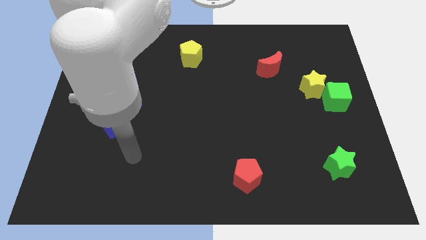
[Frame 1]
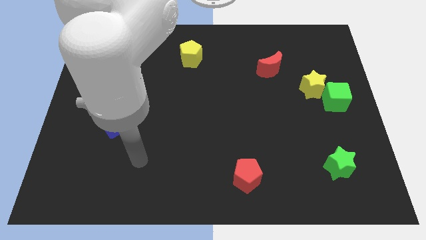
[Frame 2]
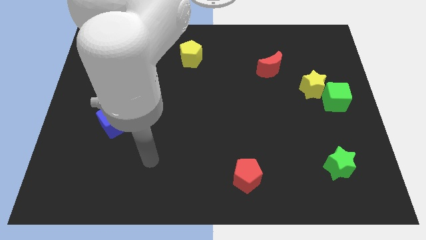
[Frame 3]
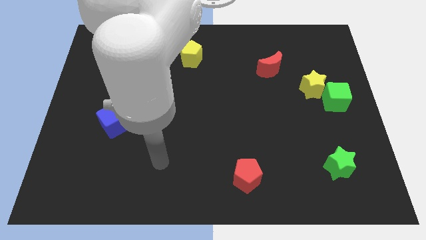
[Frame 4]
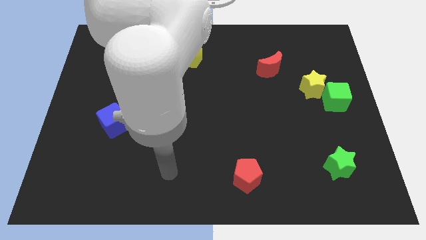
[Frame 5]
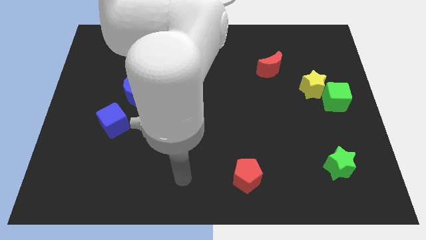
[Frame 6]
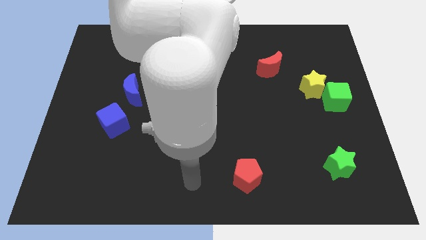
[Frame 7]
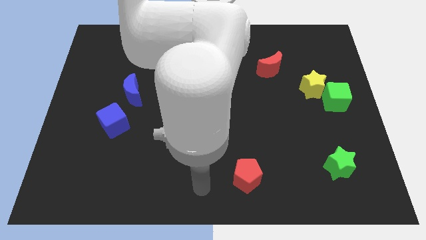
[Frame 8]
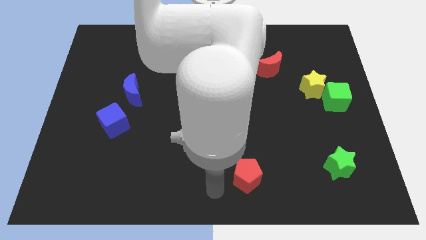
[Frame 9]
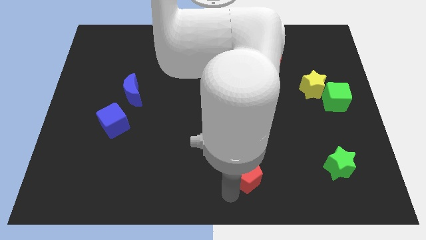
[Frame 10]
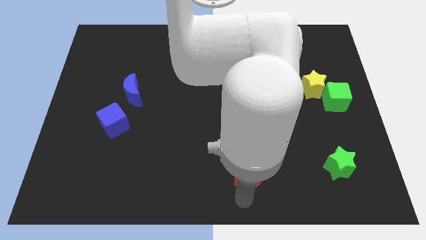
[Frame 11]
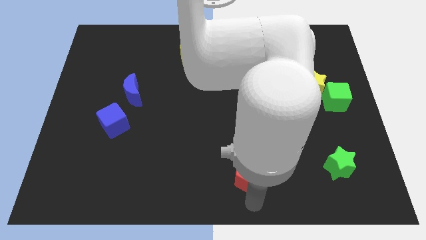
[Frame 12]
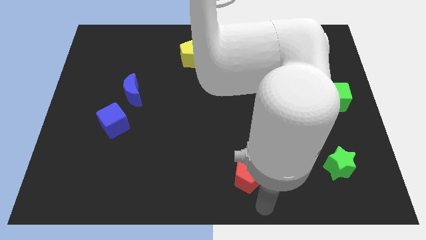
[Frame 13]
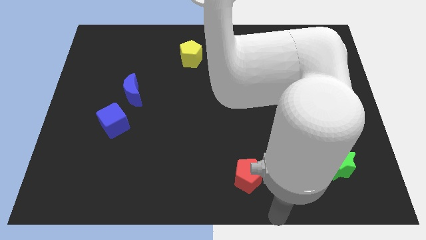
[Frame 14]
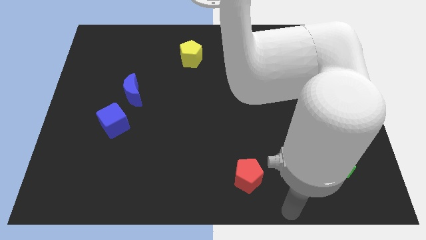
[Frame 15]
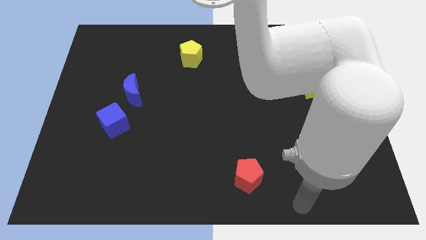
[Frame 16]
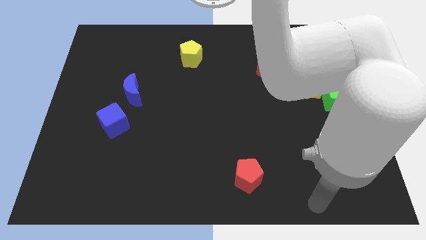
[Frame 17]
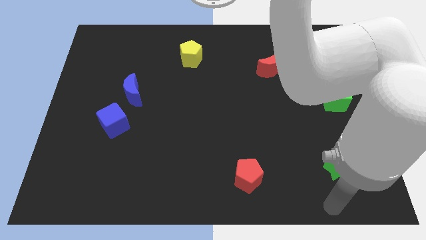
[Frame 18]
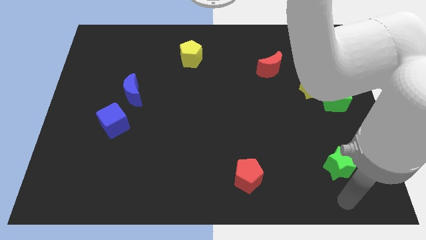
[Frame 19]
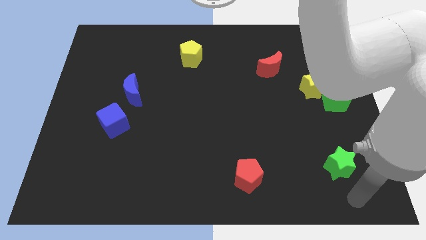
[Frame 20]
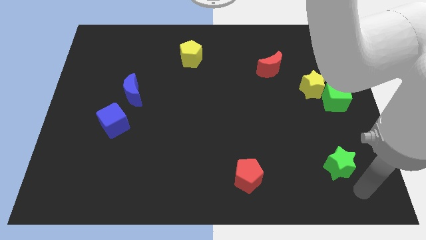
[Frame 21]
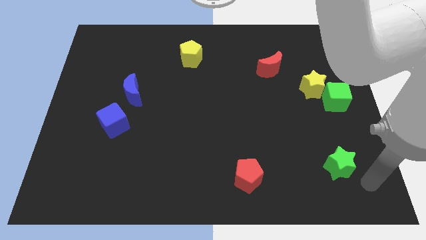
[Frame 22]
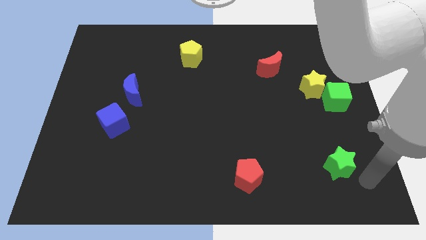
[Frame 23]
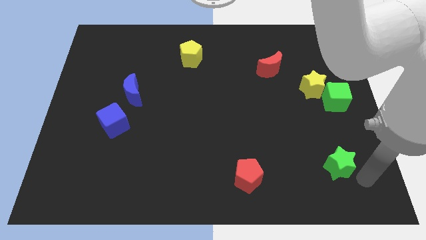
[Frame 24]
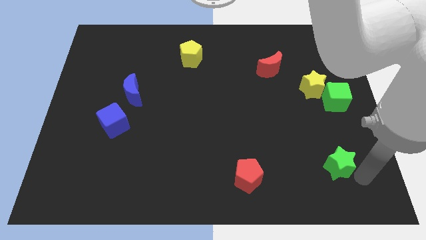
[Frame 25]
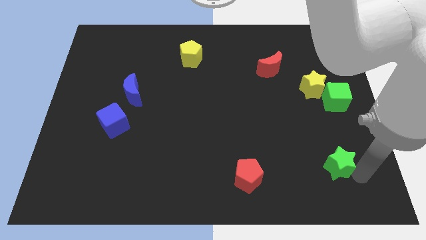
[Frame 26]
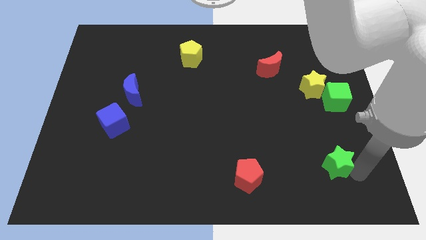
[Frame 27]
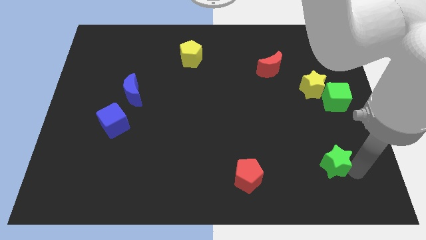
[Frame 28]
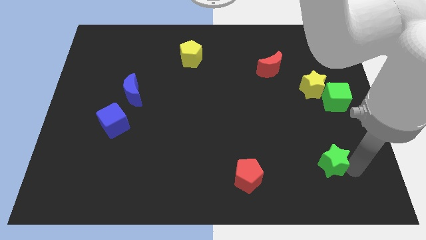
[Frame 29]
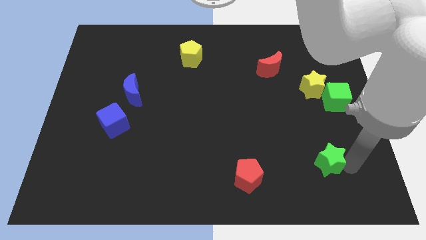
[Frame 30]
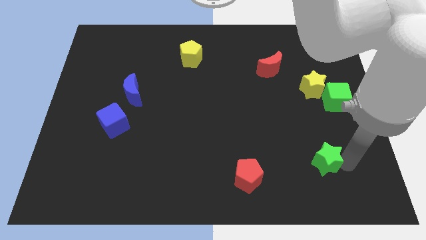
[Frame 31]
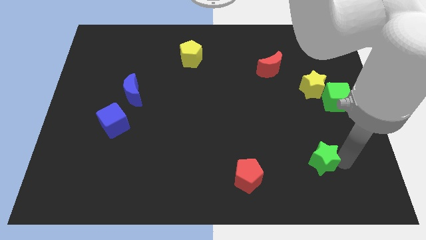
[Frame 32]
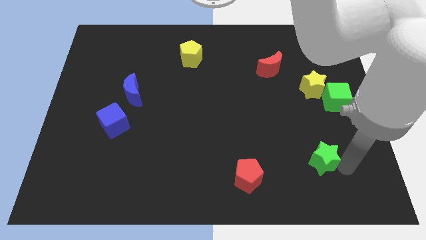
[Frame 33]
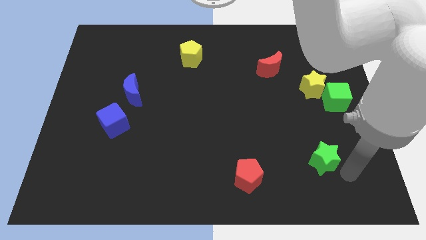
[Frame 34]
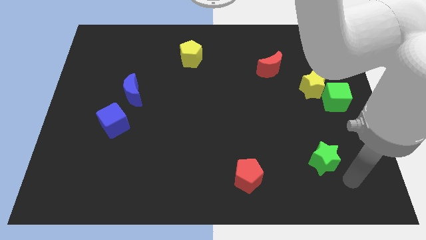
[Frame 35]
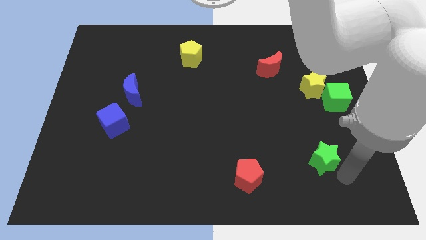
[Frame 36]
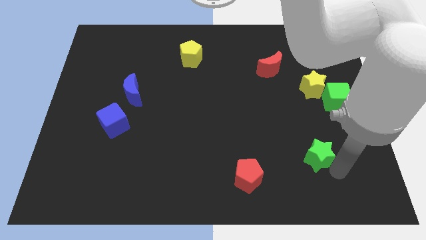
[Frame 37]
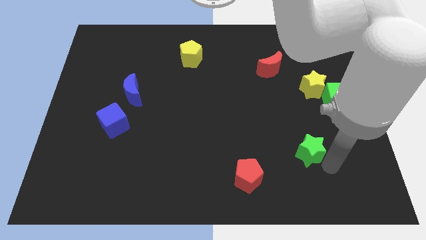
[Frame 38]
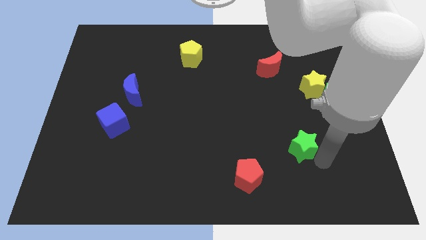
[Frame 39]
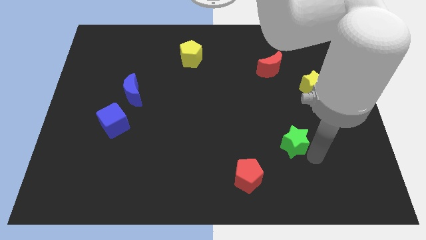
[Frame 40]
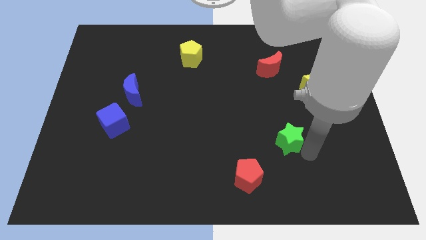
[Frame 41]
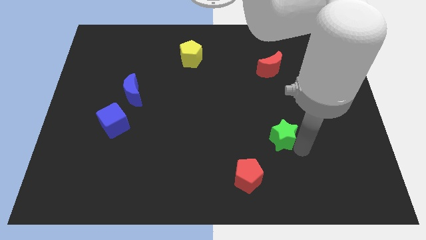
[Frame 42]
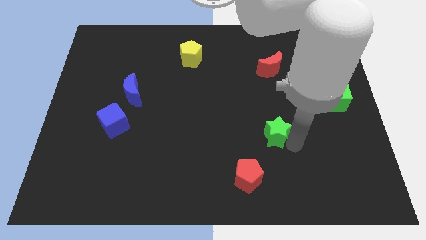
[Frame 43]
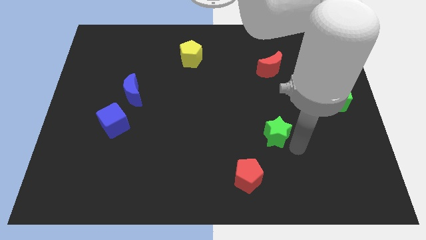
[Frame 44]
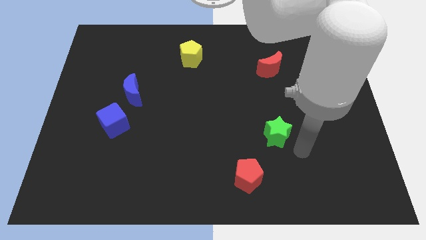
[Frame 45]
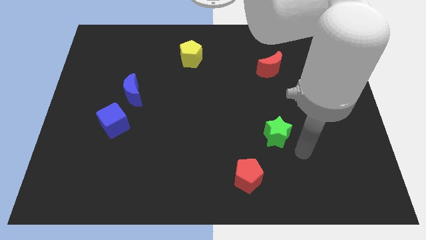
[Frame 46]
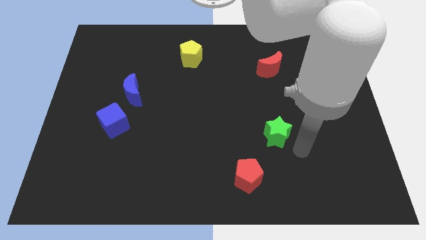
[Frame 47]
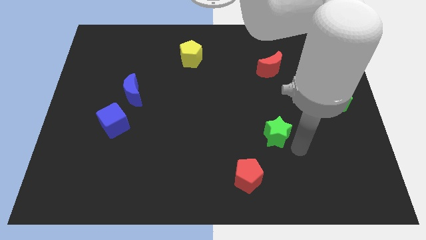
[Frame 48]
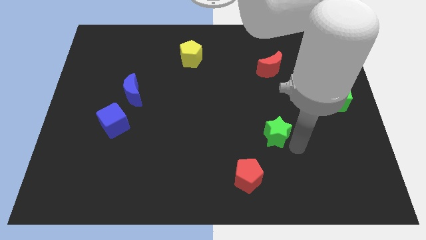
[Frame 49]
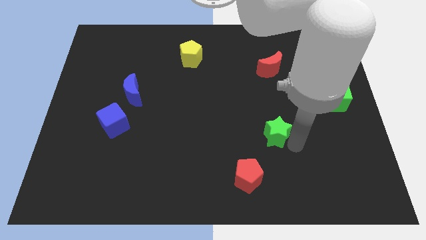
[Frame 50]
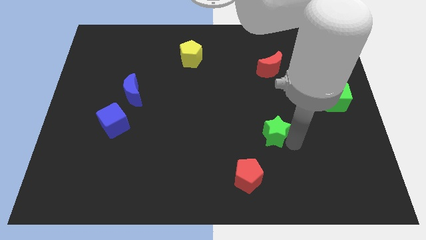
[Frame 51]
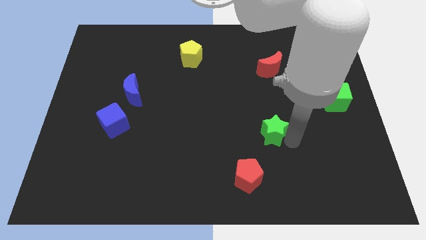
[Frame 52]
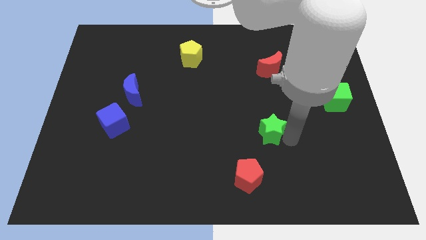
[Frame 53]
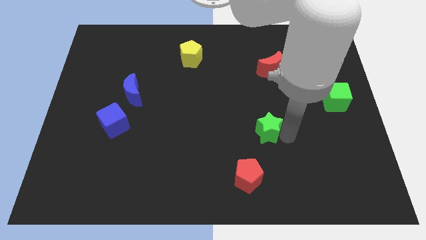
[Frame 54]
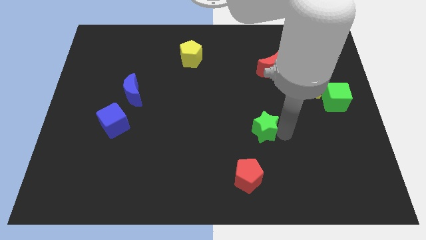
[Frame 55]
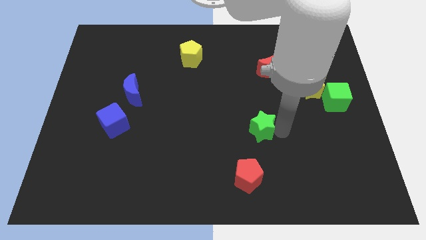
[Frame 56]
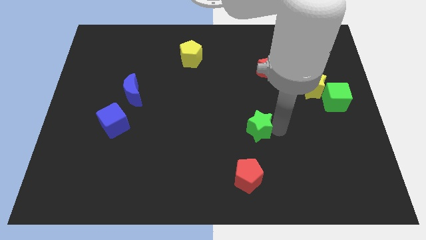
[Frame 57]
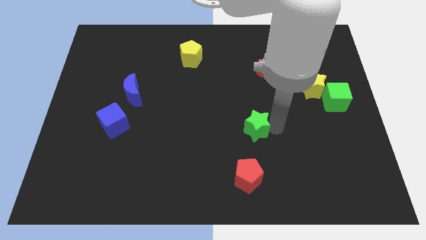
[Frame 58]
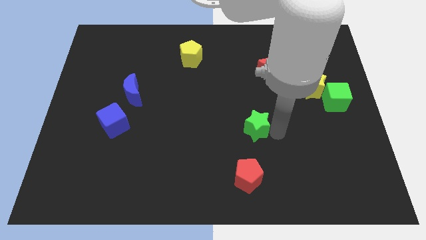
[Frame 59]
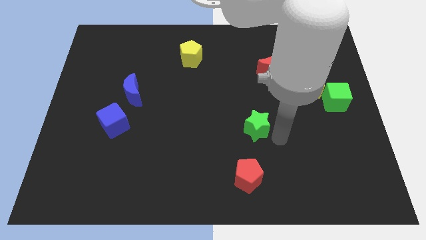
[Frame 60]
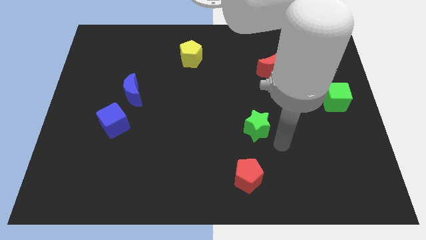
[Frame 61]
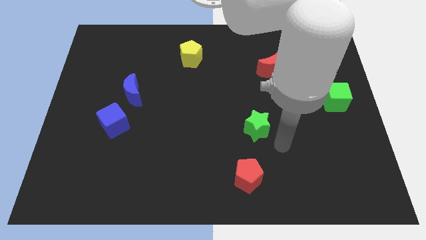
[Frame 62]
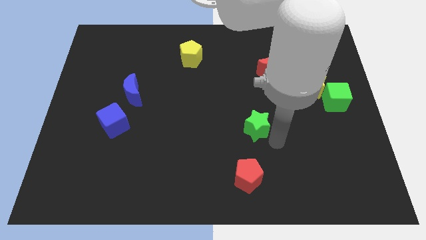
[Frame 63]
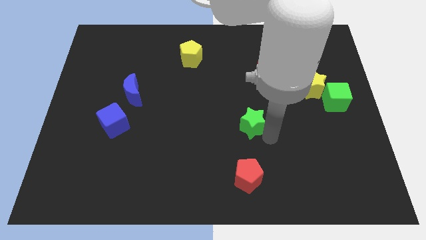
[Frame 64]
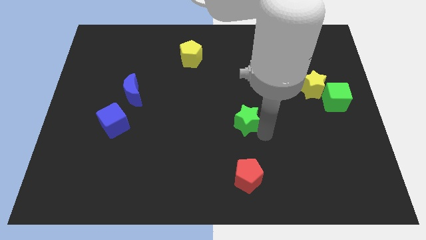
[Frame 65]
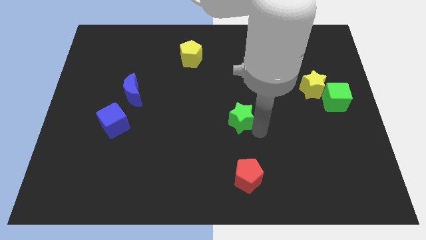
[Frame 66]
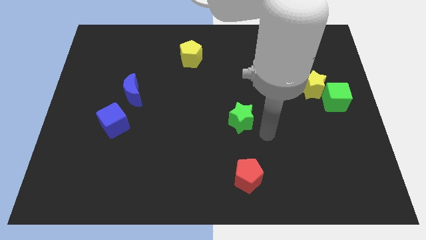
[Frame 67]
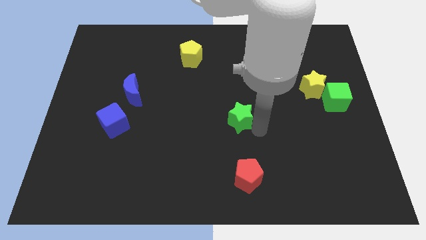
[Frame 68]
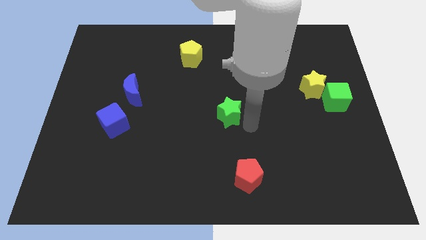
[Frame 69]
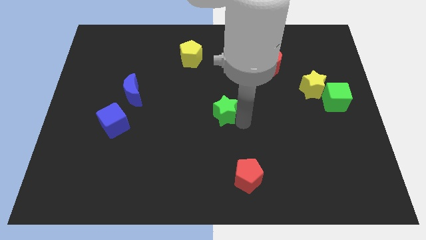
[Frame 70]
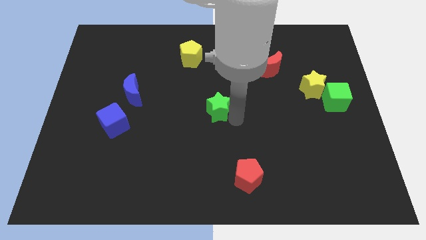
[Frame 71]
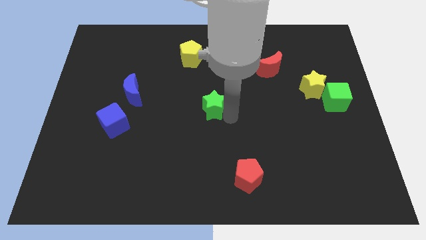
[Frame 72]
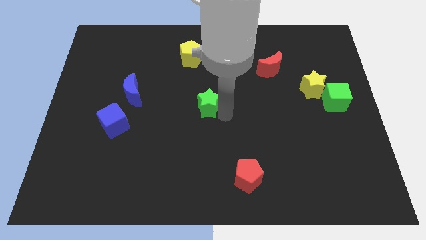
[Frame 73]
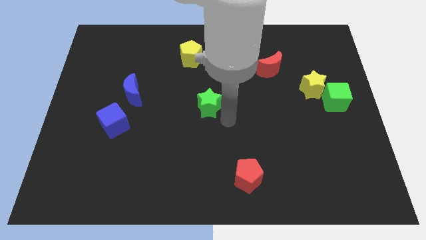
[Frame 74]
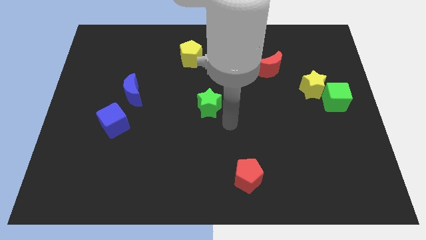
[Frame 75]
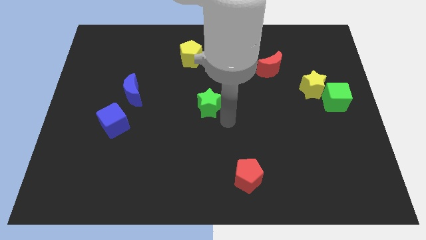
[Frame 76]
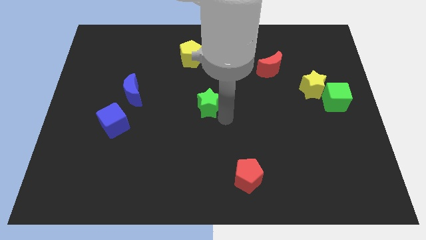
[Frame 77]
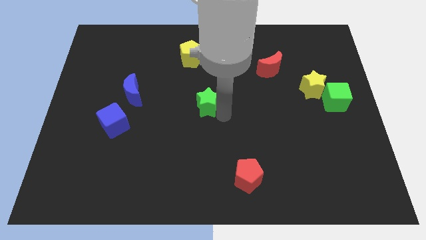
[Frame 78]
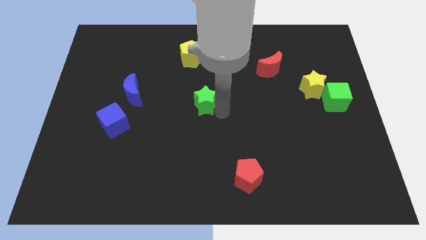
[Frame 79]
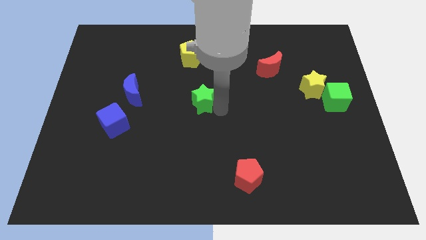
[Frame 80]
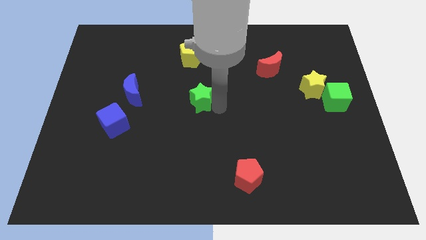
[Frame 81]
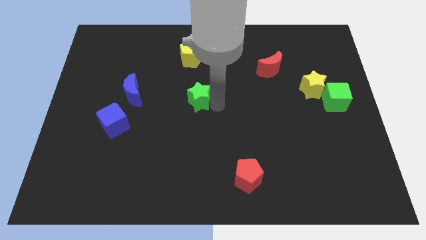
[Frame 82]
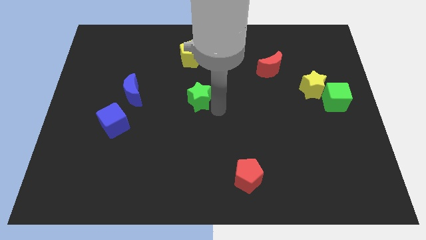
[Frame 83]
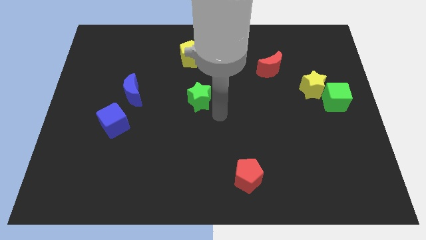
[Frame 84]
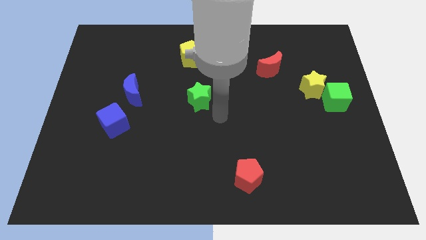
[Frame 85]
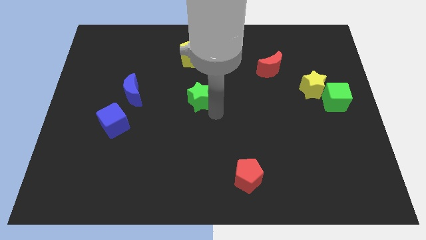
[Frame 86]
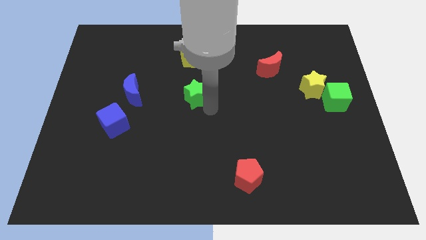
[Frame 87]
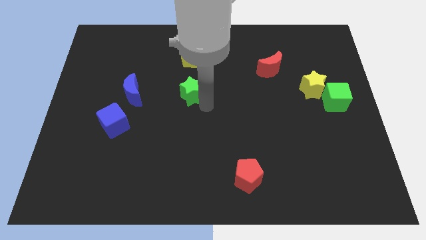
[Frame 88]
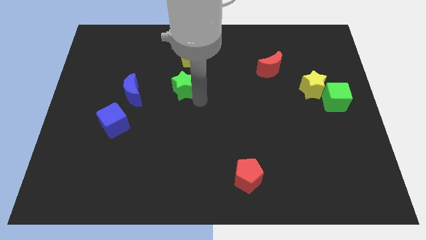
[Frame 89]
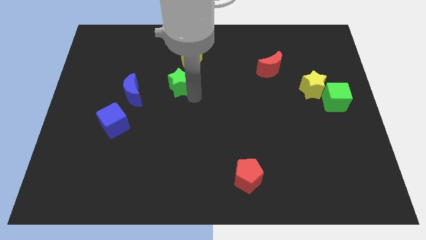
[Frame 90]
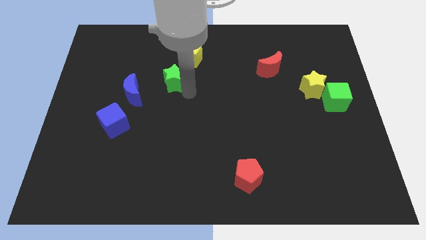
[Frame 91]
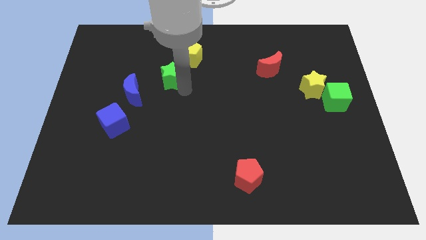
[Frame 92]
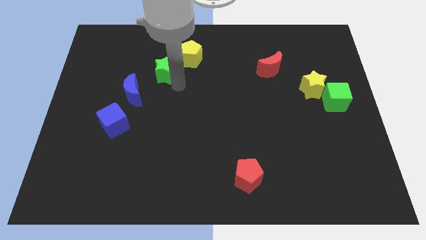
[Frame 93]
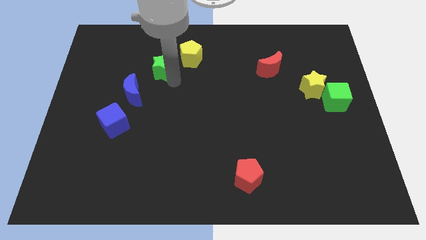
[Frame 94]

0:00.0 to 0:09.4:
move the green star just left of the yellow pentagon
